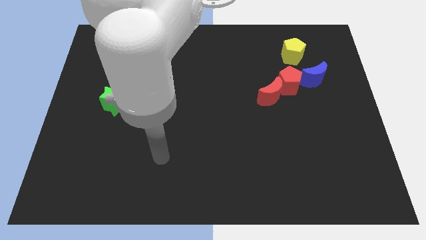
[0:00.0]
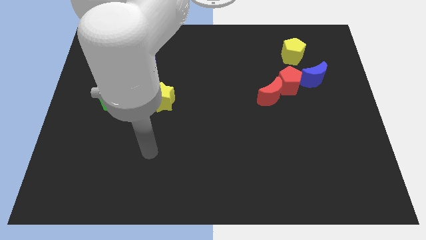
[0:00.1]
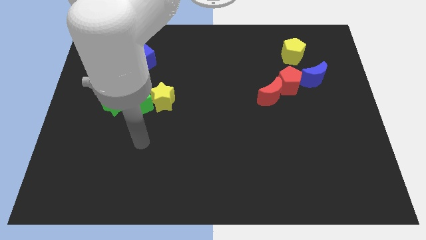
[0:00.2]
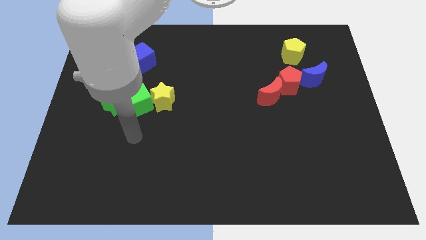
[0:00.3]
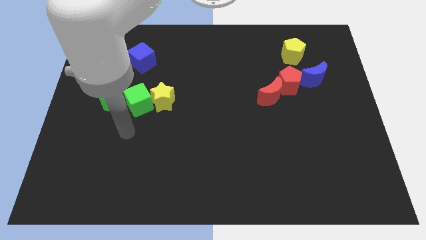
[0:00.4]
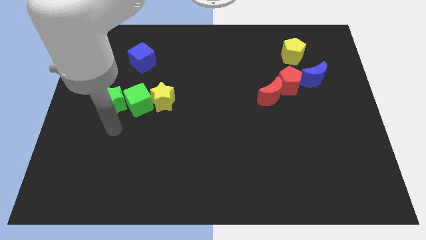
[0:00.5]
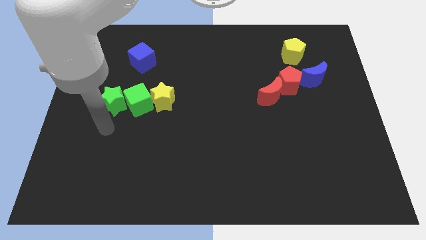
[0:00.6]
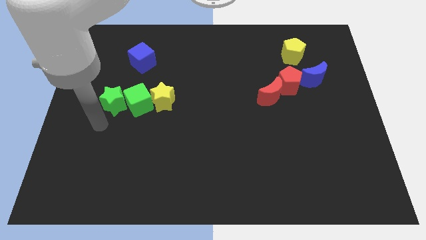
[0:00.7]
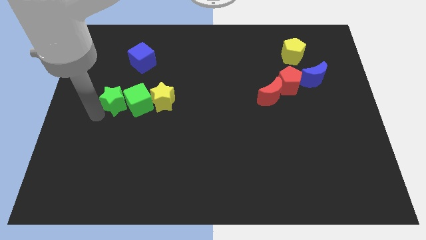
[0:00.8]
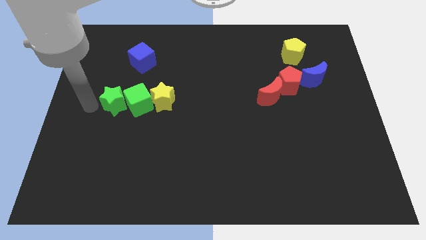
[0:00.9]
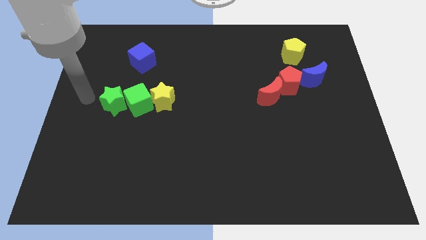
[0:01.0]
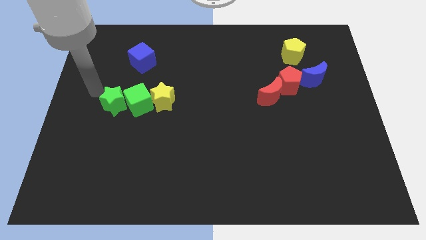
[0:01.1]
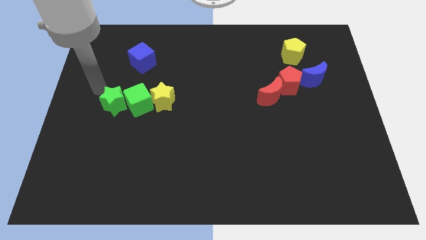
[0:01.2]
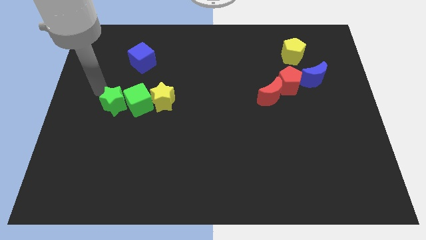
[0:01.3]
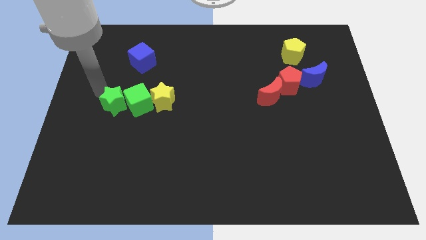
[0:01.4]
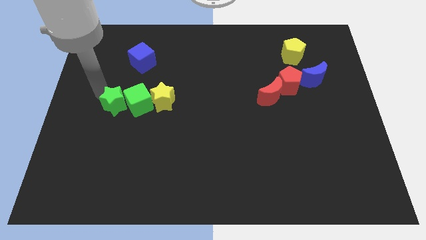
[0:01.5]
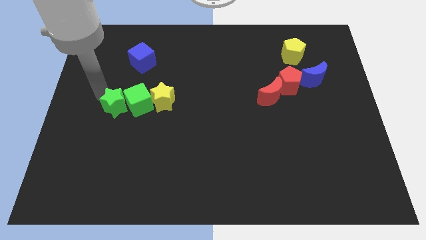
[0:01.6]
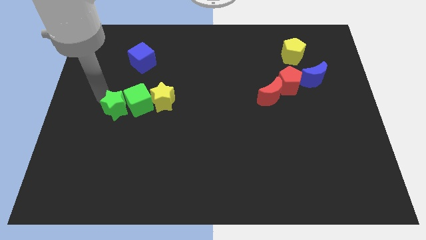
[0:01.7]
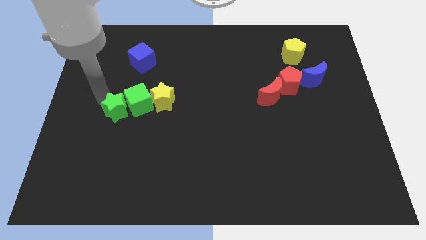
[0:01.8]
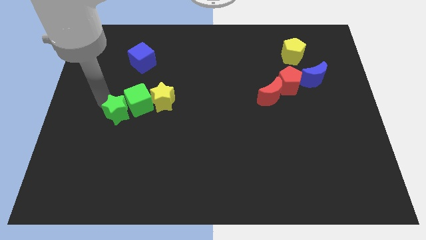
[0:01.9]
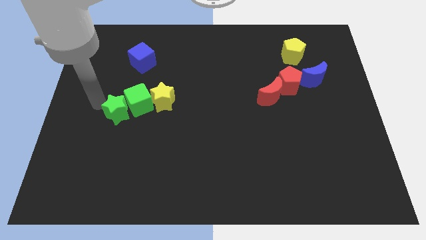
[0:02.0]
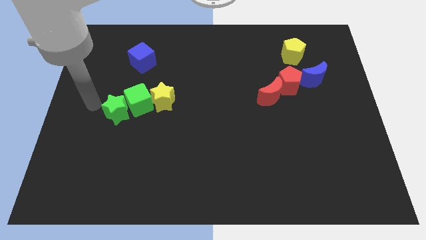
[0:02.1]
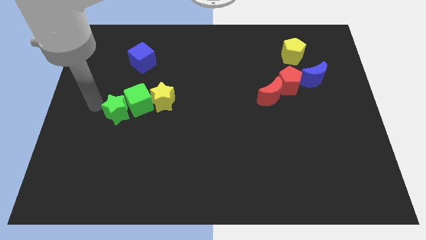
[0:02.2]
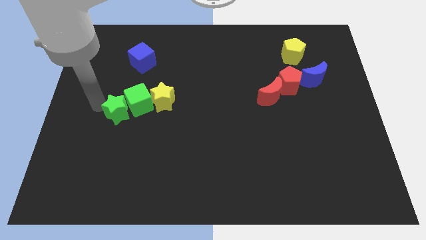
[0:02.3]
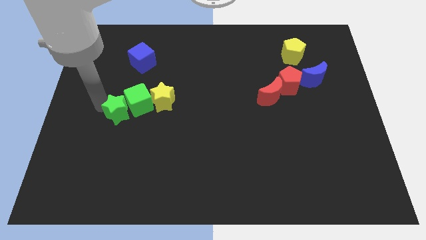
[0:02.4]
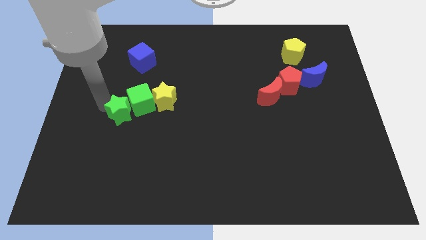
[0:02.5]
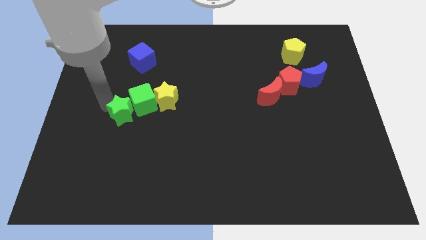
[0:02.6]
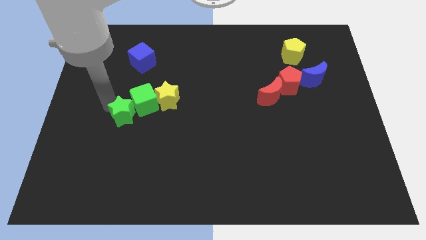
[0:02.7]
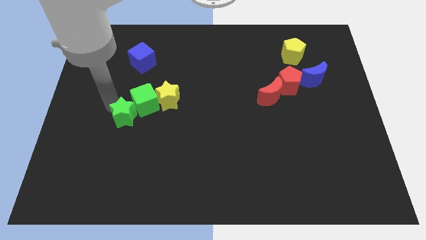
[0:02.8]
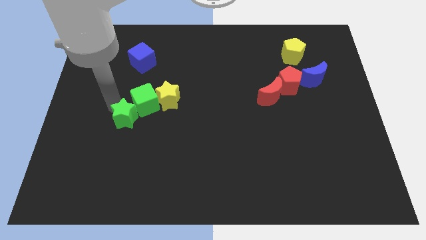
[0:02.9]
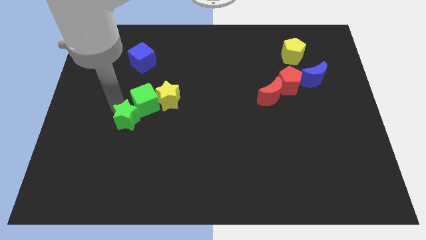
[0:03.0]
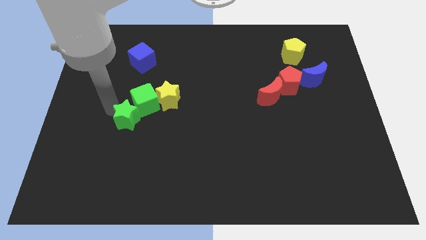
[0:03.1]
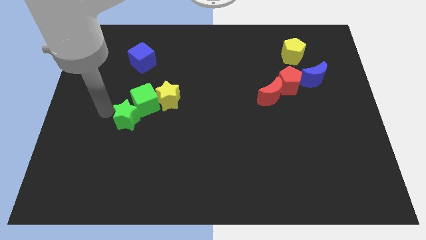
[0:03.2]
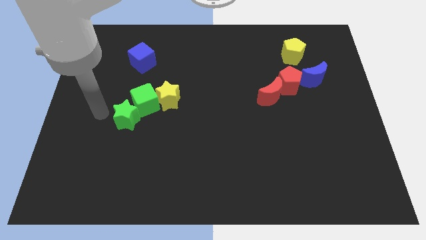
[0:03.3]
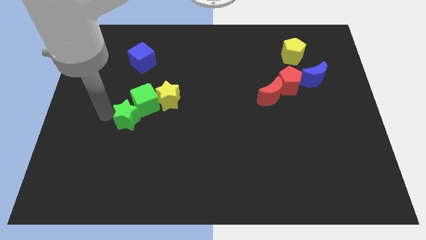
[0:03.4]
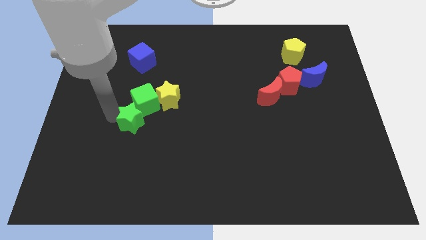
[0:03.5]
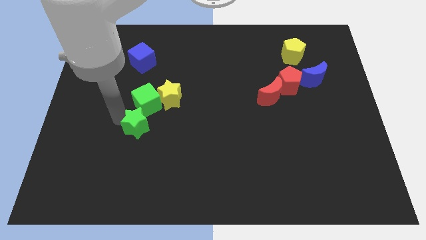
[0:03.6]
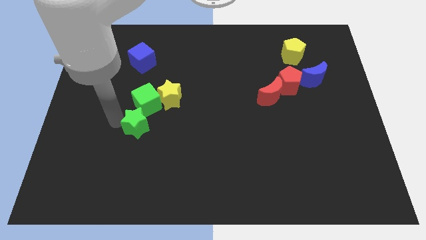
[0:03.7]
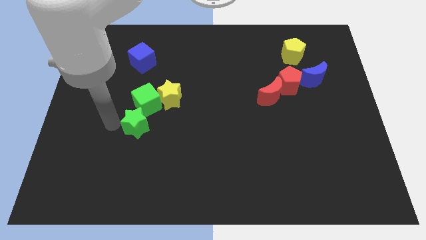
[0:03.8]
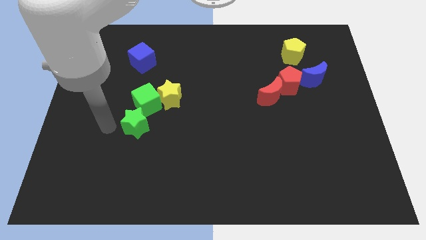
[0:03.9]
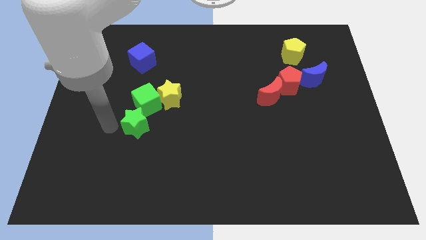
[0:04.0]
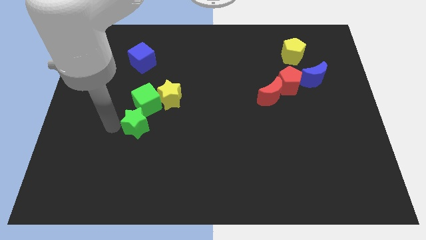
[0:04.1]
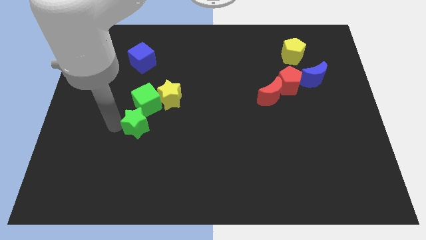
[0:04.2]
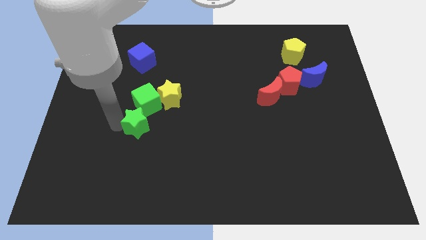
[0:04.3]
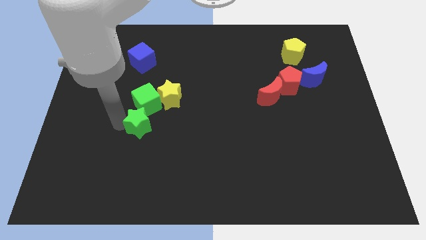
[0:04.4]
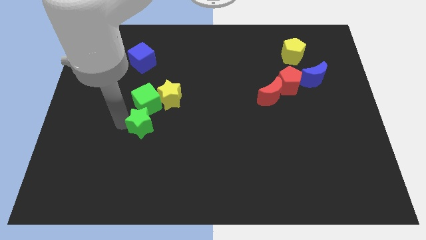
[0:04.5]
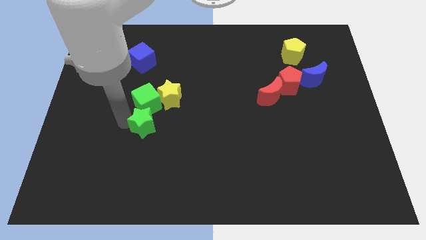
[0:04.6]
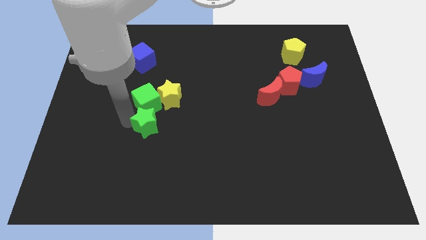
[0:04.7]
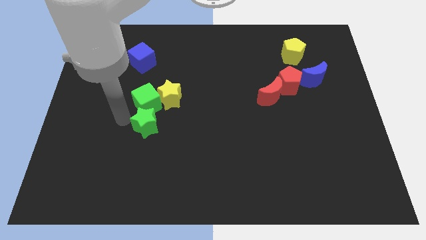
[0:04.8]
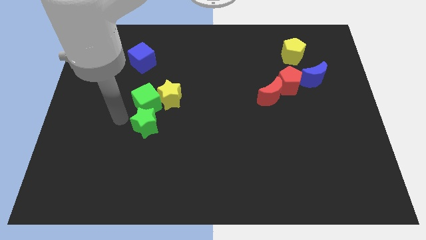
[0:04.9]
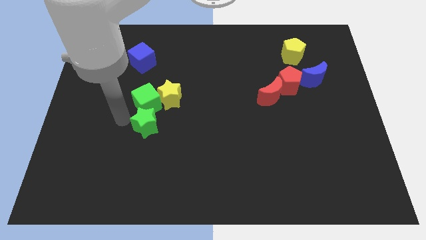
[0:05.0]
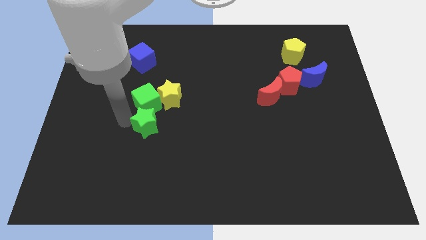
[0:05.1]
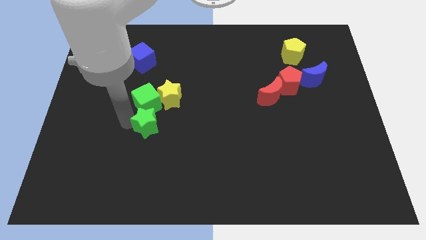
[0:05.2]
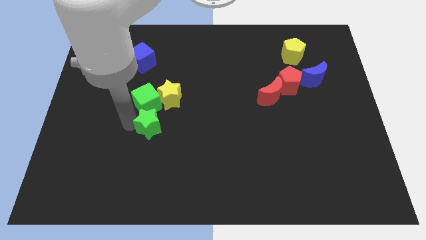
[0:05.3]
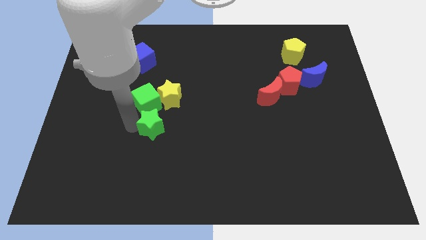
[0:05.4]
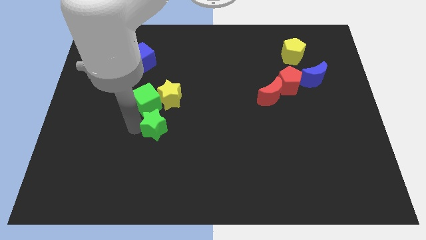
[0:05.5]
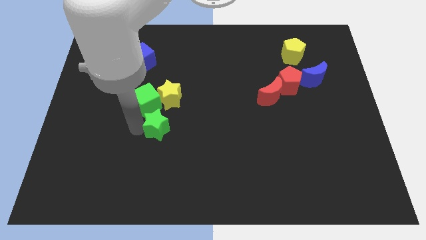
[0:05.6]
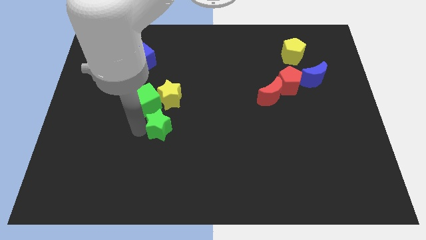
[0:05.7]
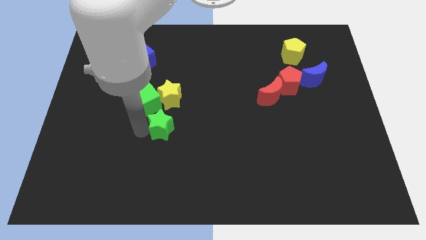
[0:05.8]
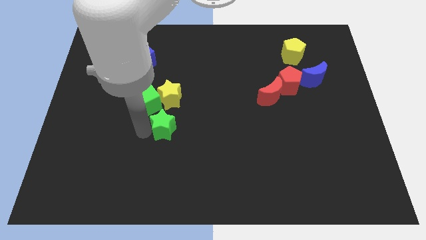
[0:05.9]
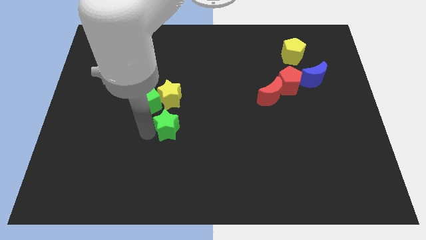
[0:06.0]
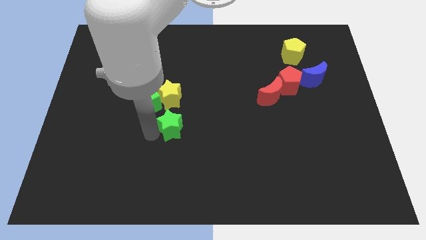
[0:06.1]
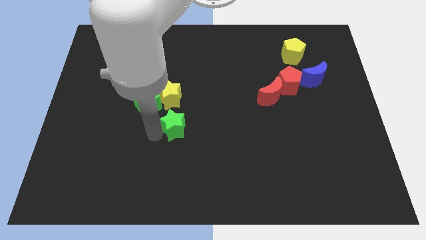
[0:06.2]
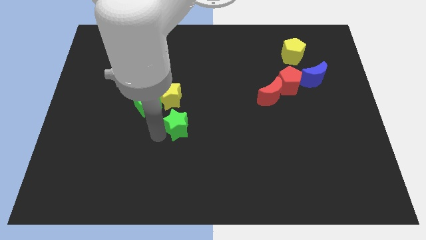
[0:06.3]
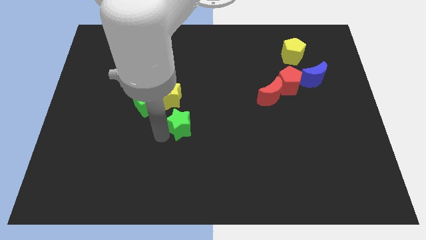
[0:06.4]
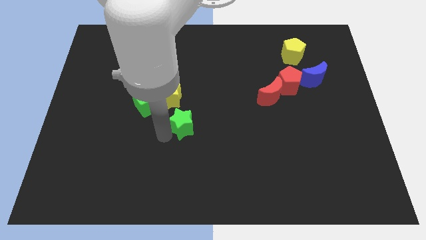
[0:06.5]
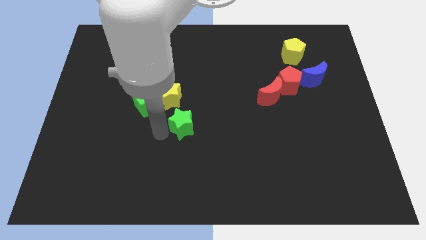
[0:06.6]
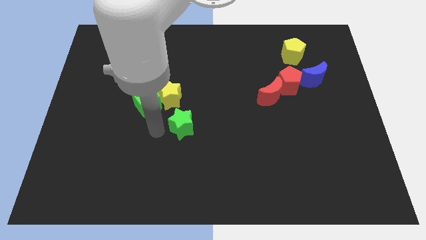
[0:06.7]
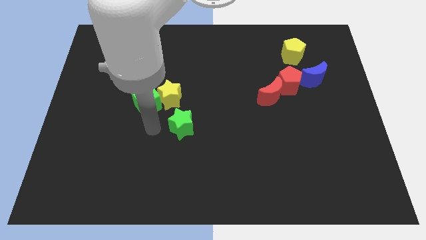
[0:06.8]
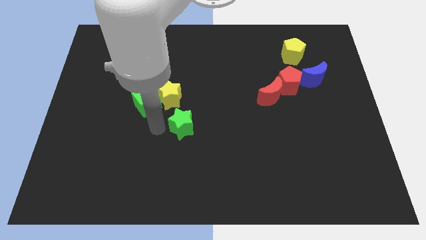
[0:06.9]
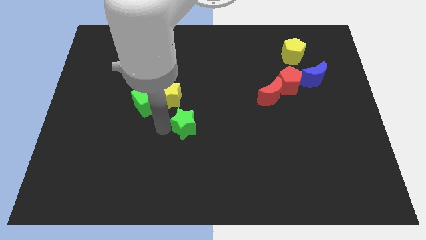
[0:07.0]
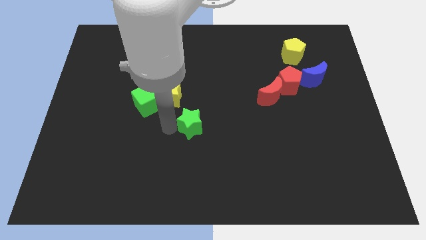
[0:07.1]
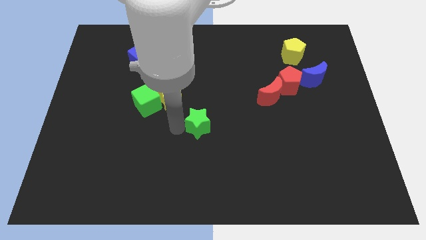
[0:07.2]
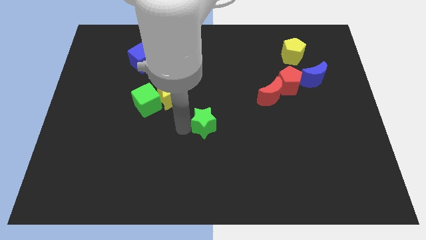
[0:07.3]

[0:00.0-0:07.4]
slide the green star right

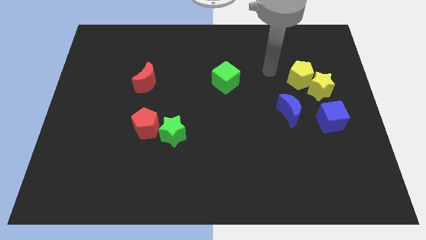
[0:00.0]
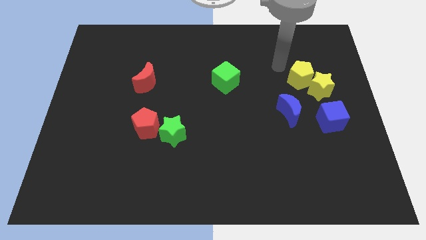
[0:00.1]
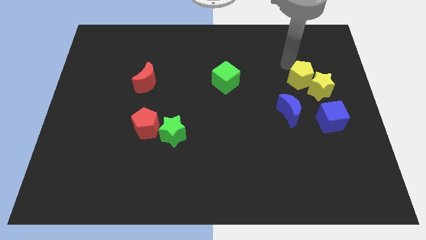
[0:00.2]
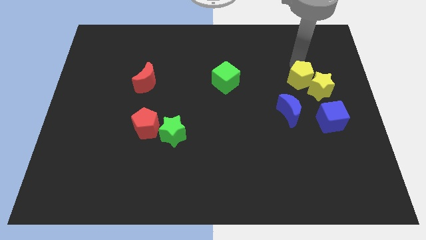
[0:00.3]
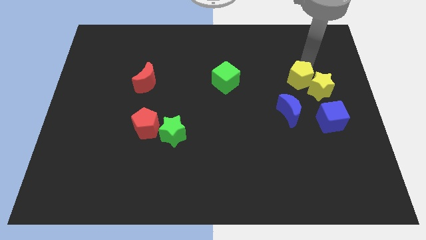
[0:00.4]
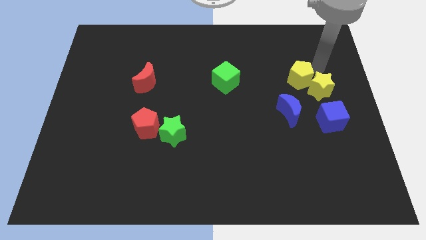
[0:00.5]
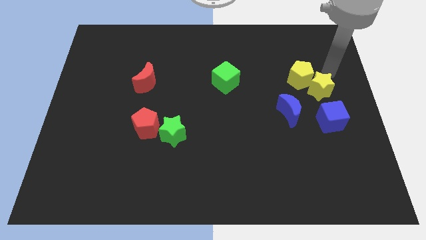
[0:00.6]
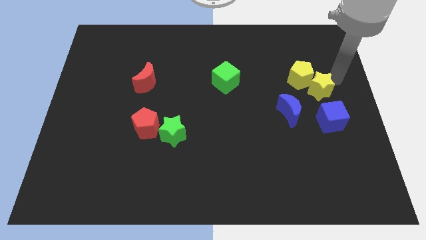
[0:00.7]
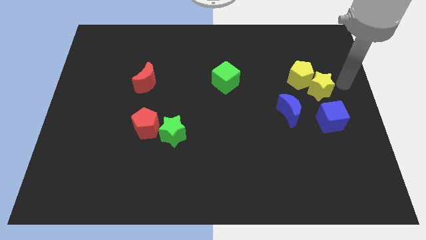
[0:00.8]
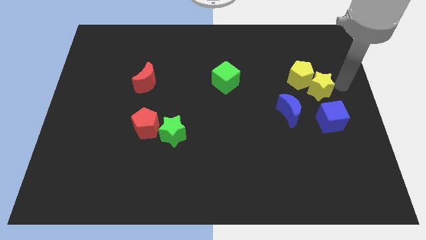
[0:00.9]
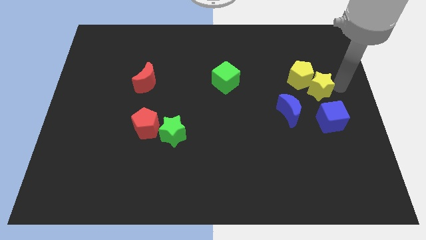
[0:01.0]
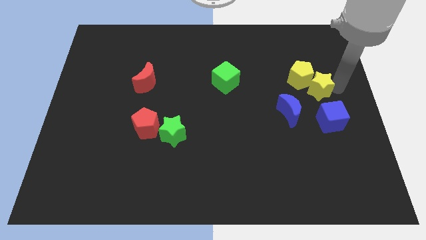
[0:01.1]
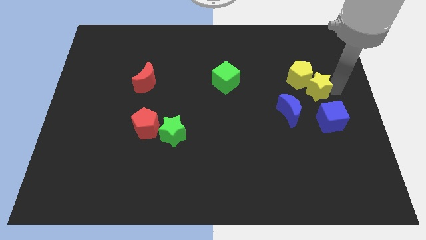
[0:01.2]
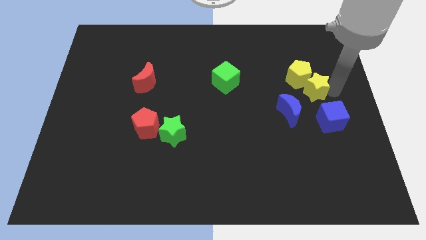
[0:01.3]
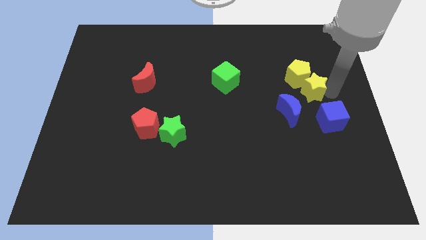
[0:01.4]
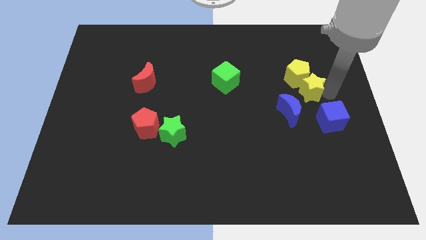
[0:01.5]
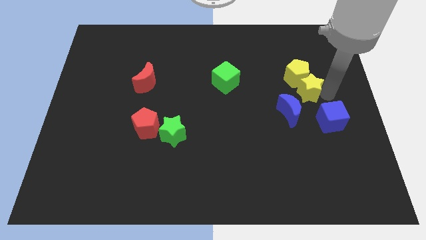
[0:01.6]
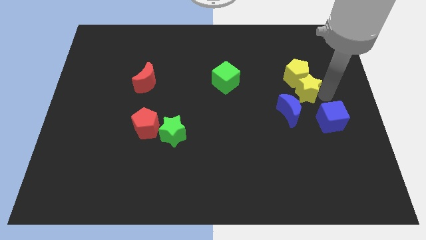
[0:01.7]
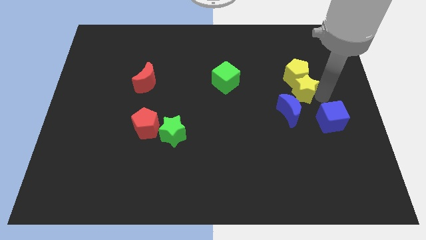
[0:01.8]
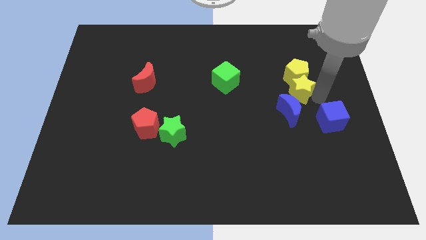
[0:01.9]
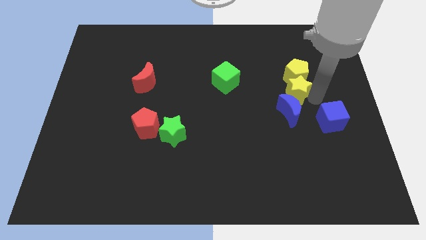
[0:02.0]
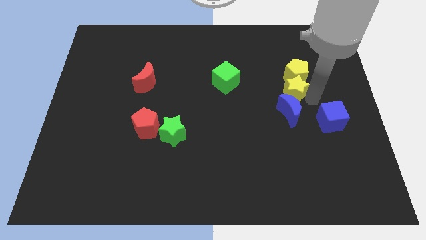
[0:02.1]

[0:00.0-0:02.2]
push the yellow star slightly to the left
